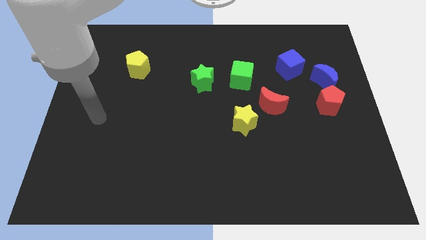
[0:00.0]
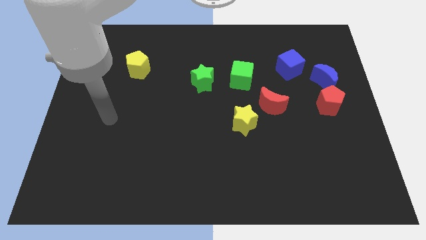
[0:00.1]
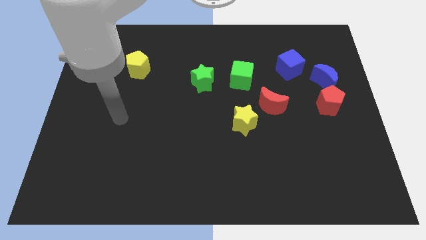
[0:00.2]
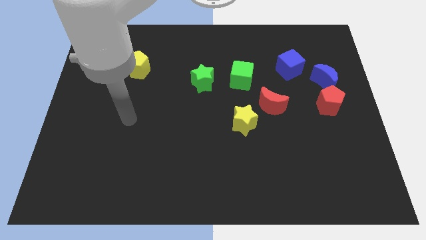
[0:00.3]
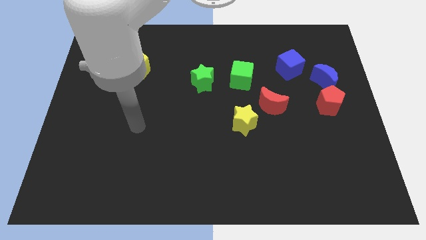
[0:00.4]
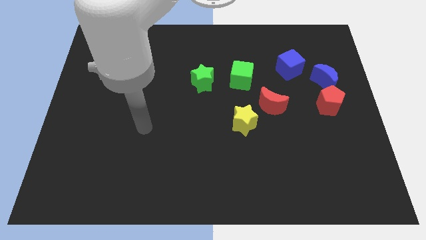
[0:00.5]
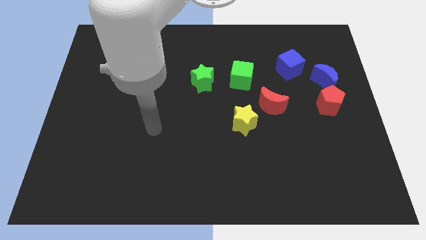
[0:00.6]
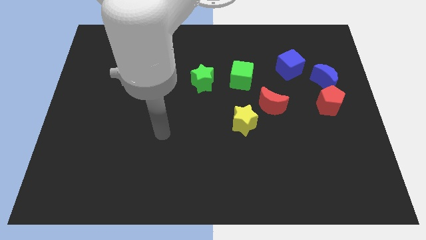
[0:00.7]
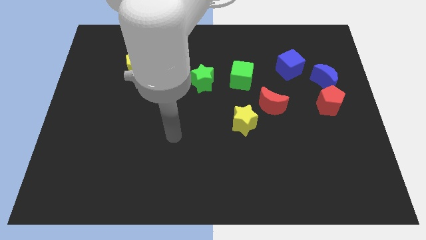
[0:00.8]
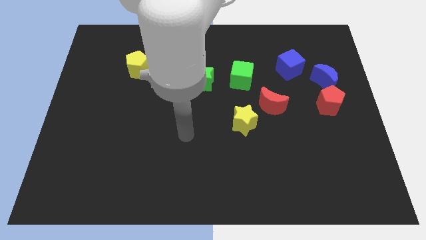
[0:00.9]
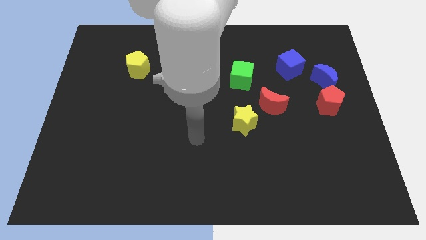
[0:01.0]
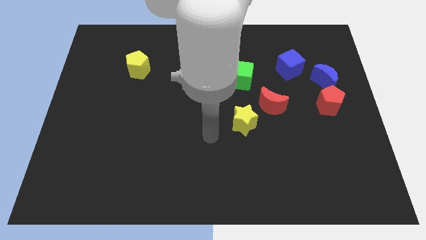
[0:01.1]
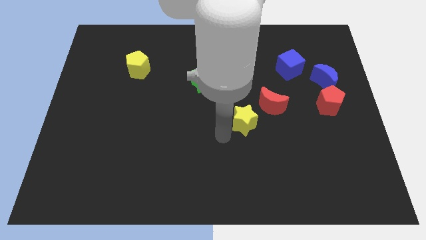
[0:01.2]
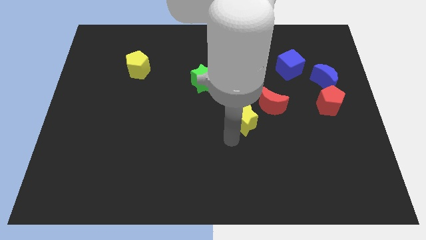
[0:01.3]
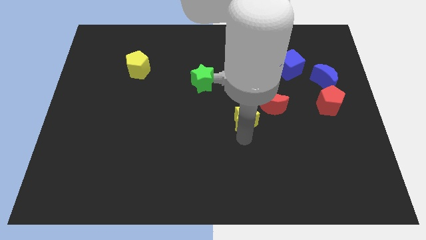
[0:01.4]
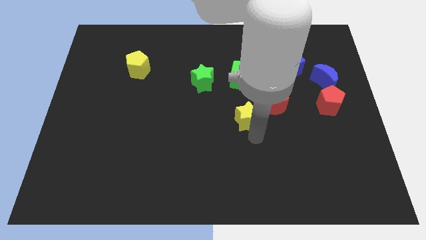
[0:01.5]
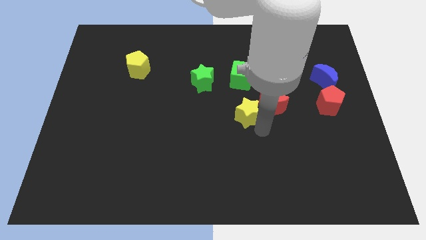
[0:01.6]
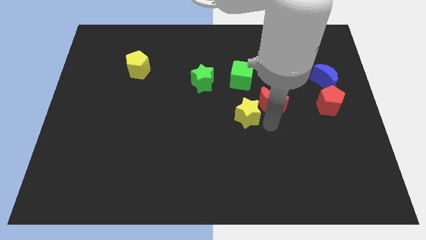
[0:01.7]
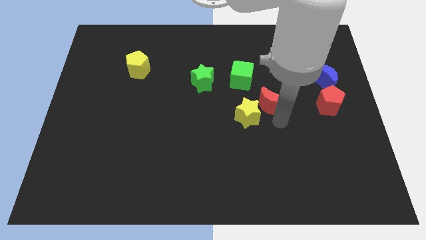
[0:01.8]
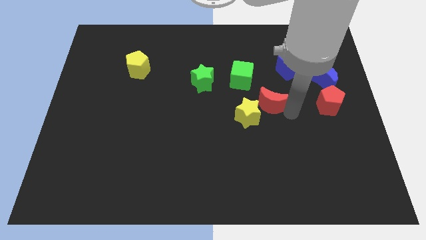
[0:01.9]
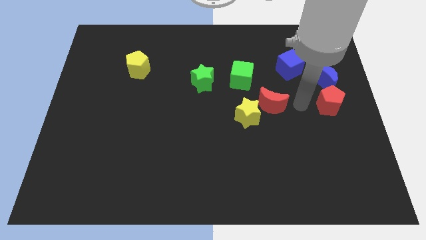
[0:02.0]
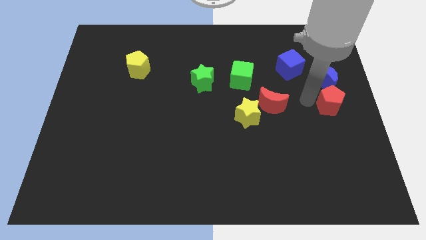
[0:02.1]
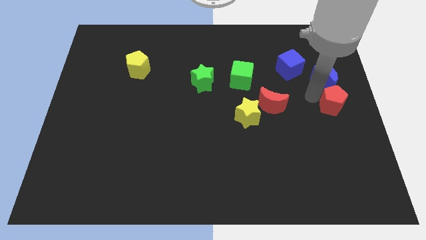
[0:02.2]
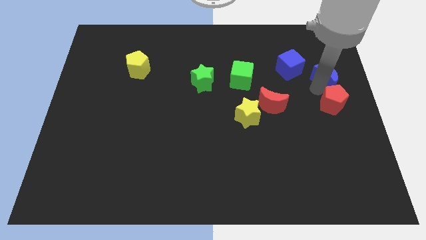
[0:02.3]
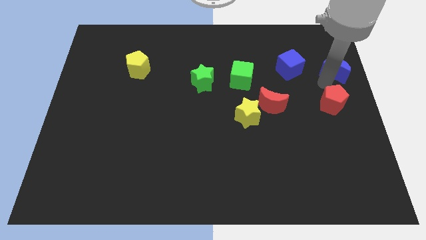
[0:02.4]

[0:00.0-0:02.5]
move the red pentagon away from the blue moon

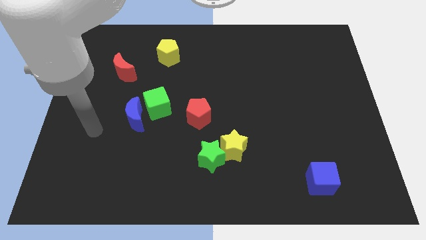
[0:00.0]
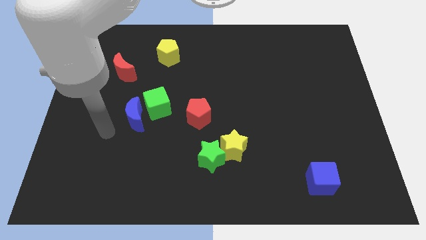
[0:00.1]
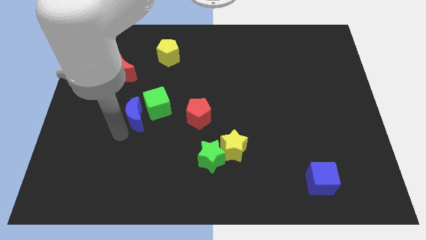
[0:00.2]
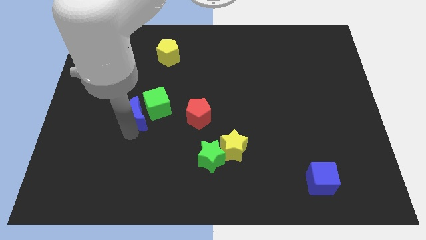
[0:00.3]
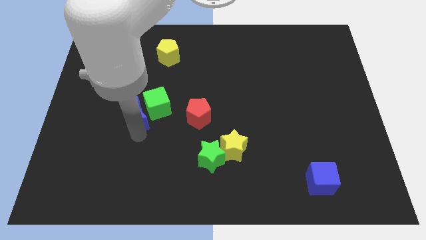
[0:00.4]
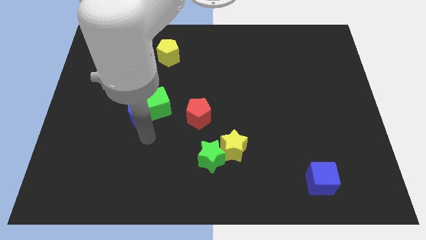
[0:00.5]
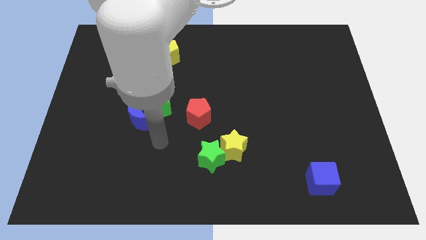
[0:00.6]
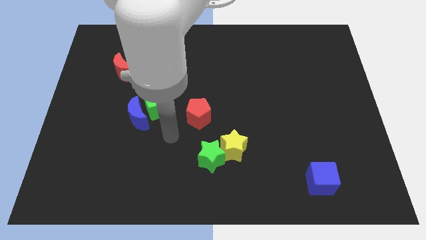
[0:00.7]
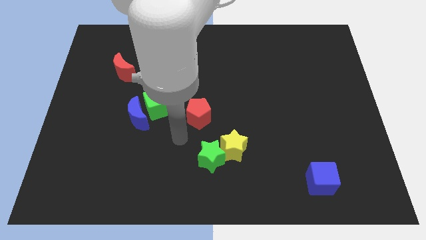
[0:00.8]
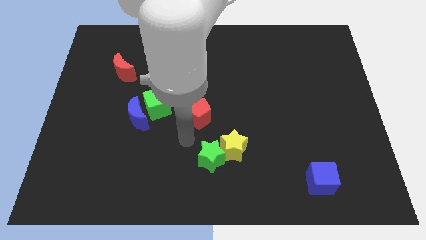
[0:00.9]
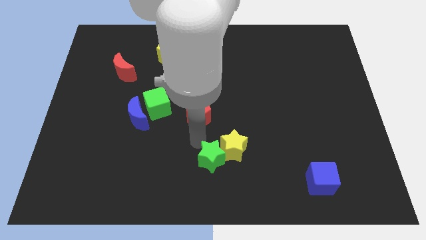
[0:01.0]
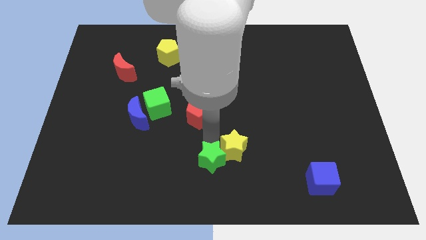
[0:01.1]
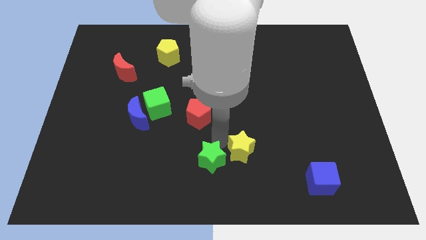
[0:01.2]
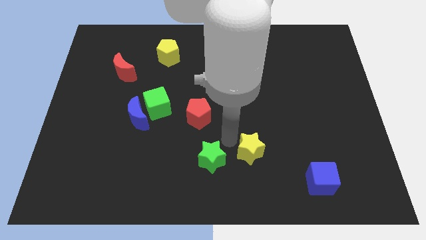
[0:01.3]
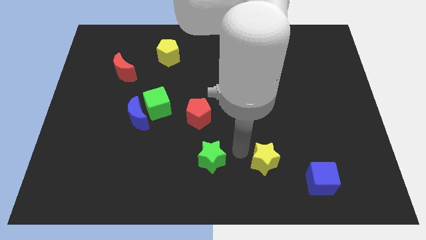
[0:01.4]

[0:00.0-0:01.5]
pull the green star apart from the yellow star

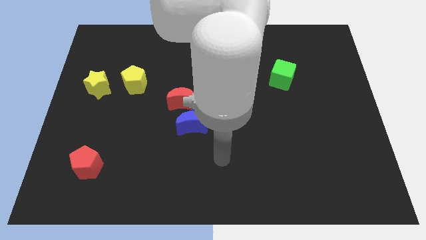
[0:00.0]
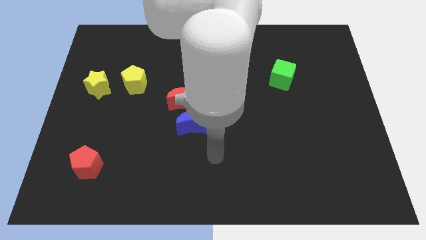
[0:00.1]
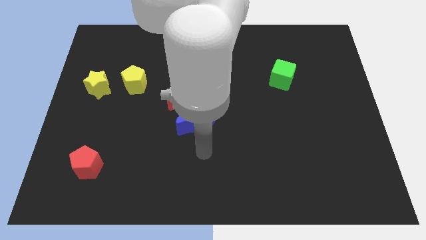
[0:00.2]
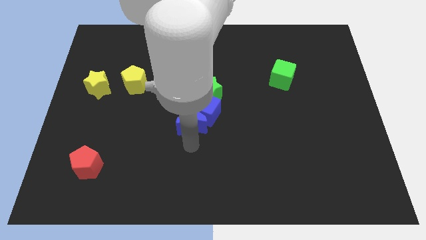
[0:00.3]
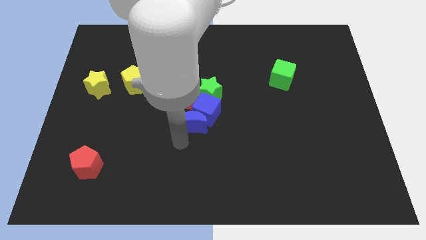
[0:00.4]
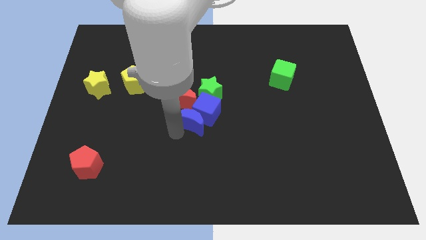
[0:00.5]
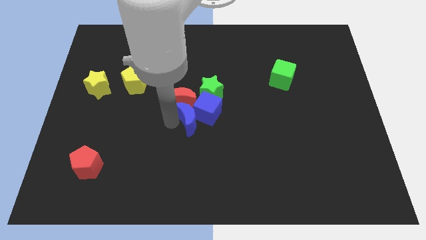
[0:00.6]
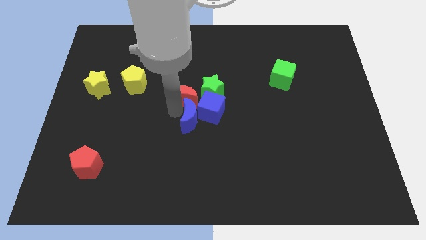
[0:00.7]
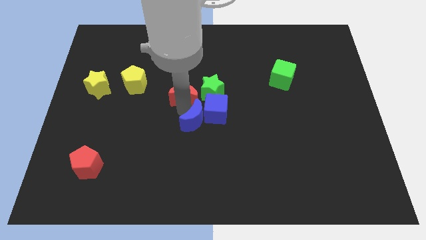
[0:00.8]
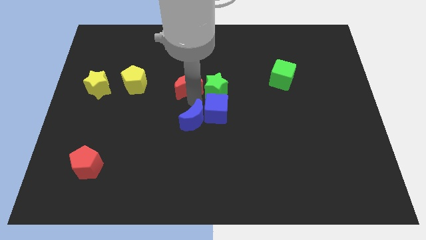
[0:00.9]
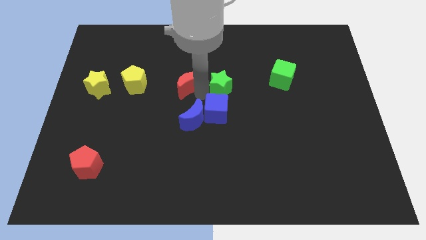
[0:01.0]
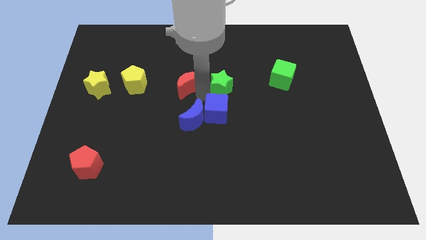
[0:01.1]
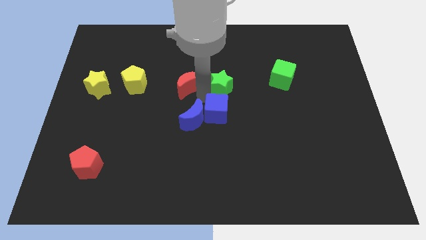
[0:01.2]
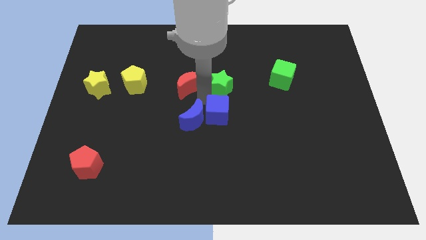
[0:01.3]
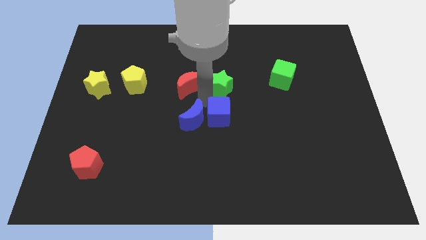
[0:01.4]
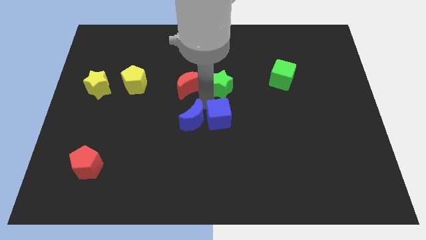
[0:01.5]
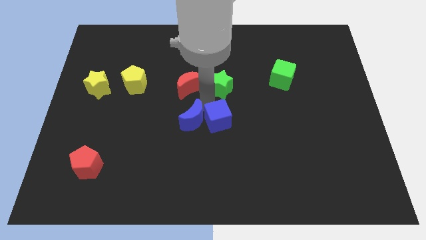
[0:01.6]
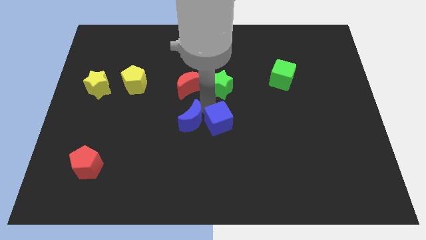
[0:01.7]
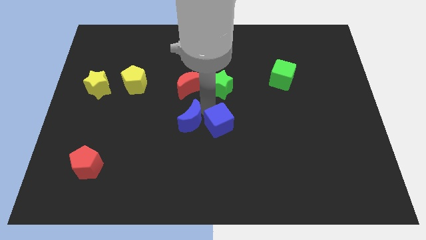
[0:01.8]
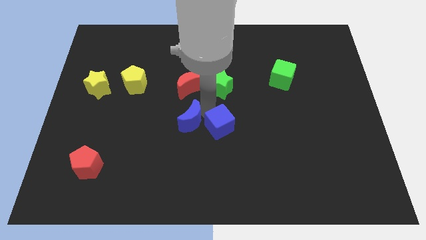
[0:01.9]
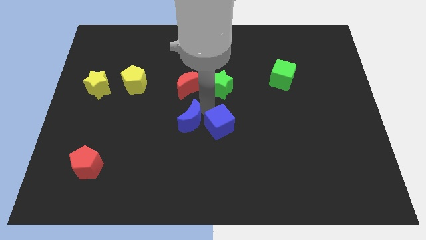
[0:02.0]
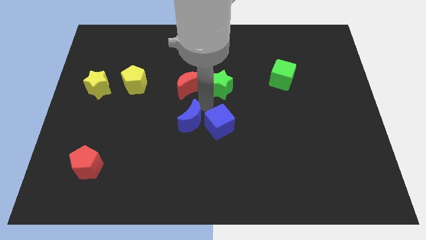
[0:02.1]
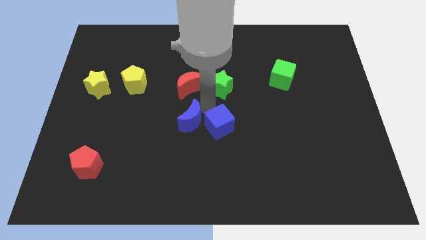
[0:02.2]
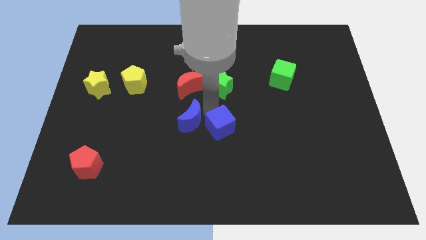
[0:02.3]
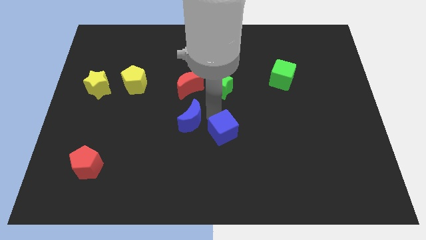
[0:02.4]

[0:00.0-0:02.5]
move the blue cube away from the blue moon, green star, and red moon

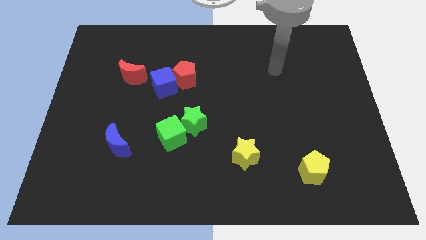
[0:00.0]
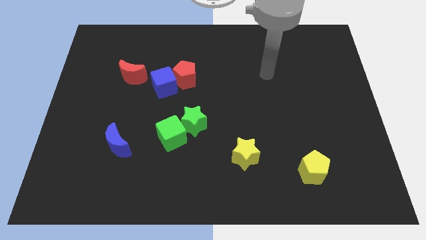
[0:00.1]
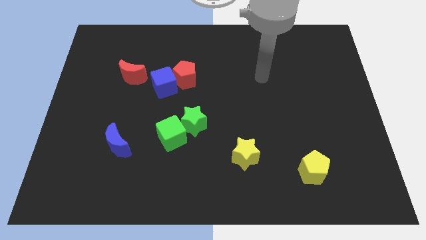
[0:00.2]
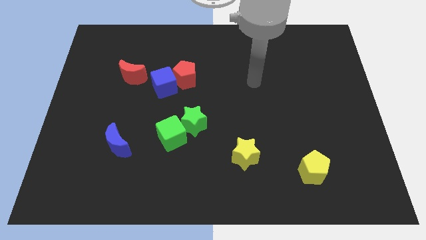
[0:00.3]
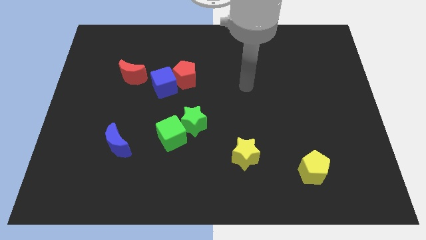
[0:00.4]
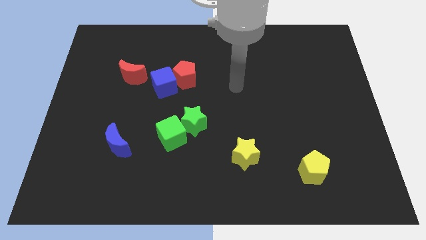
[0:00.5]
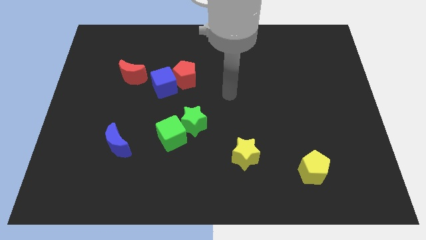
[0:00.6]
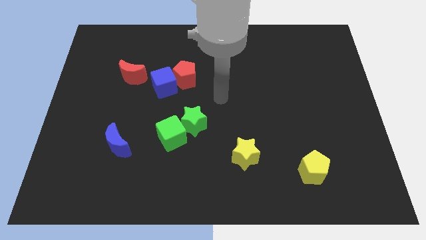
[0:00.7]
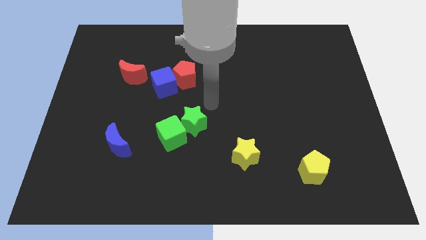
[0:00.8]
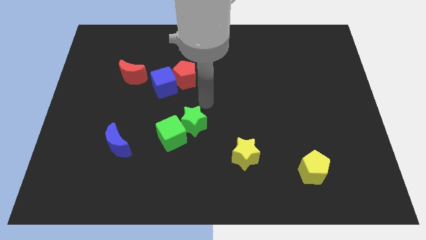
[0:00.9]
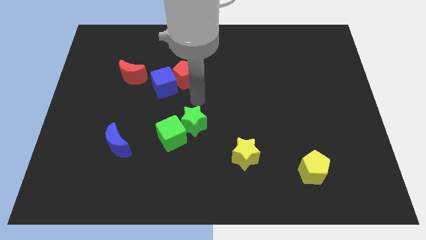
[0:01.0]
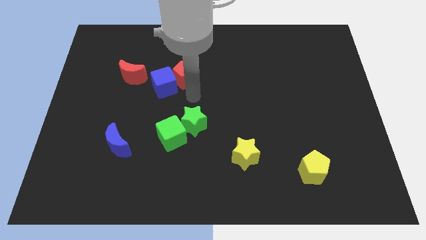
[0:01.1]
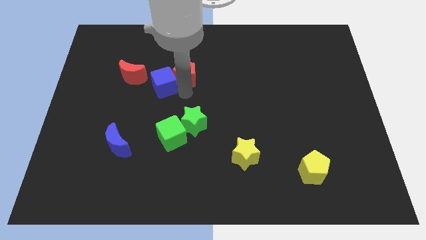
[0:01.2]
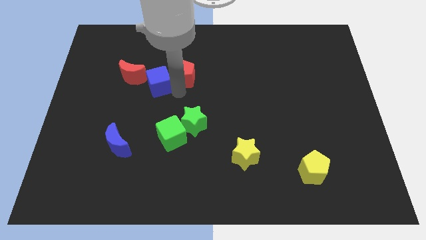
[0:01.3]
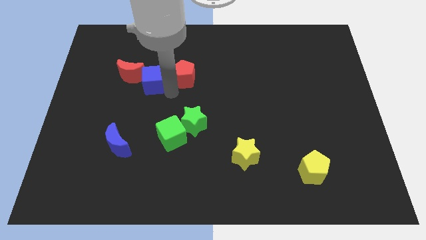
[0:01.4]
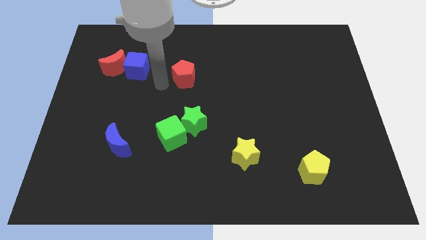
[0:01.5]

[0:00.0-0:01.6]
move the red pentagon away from the blue cube

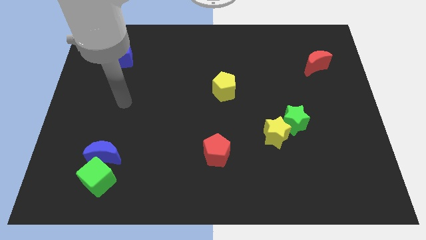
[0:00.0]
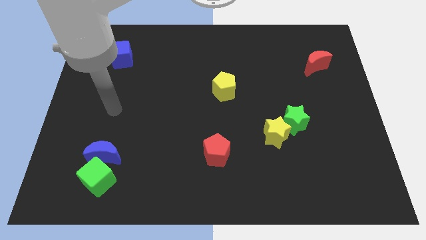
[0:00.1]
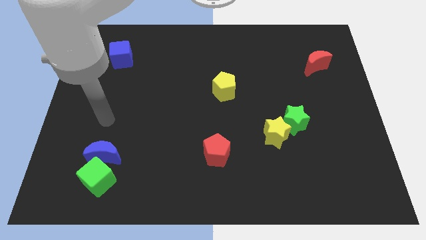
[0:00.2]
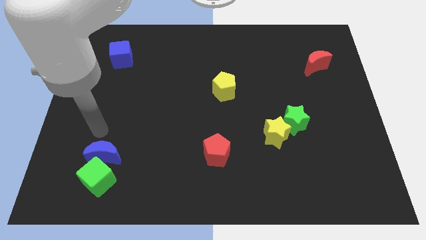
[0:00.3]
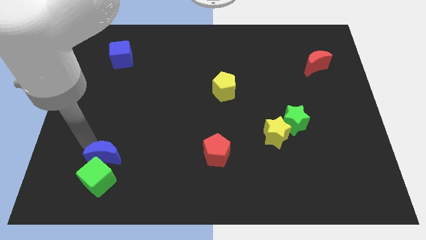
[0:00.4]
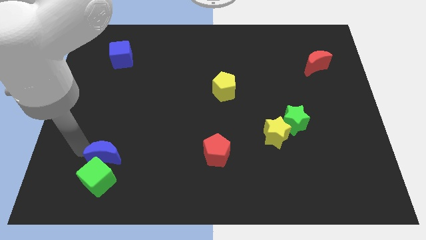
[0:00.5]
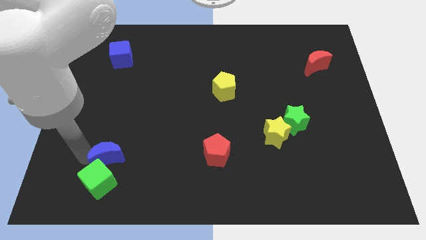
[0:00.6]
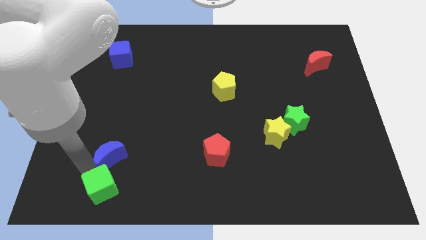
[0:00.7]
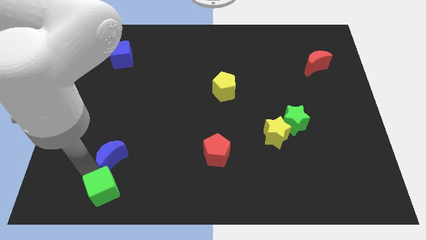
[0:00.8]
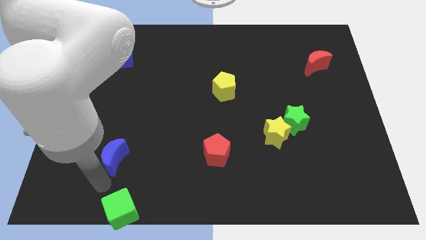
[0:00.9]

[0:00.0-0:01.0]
separate the blue moon from the green cube
